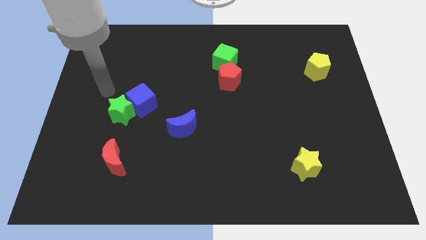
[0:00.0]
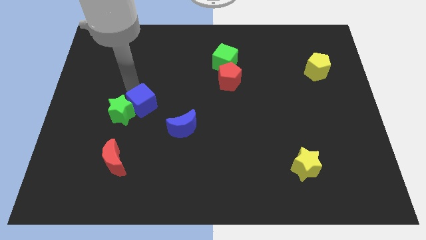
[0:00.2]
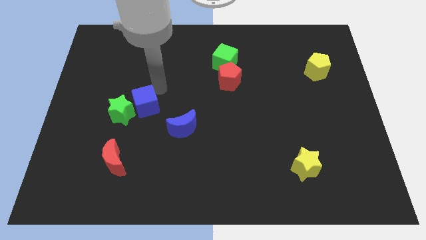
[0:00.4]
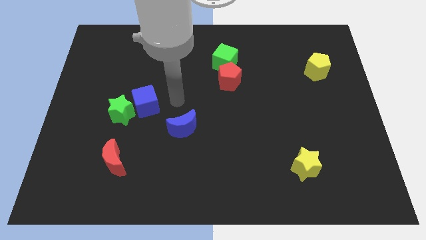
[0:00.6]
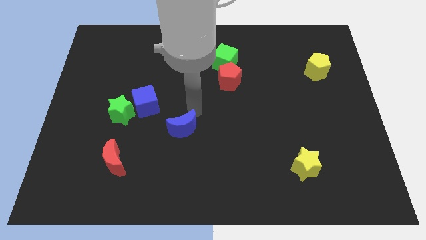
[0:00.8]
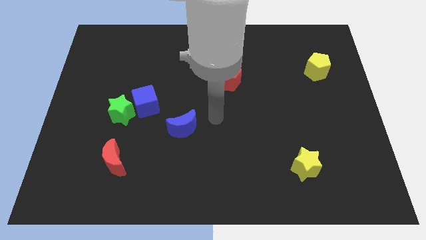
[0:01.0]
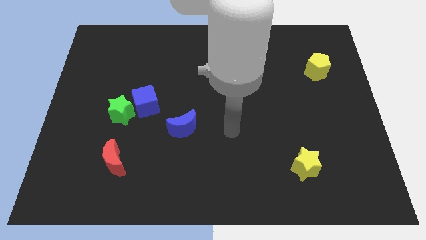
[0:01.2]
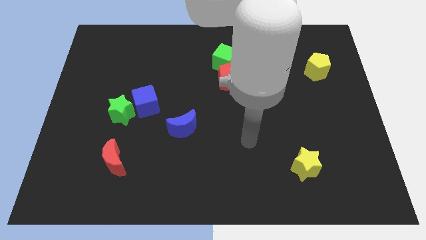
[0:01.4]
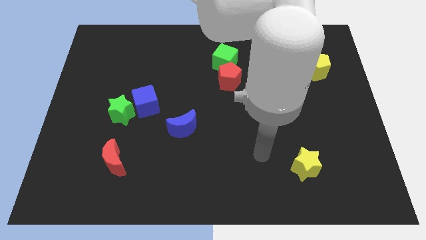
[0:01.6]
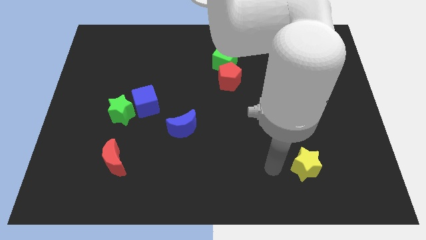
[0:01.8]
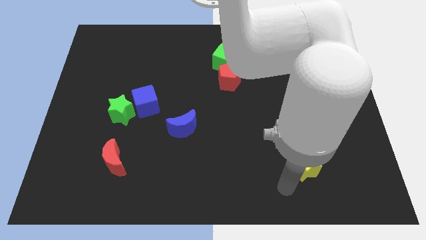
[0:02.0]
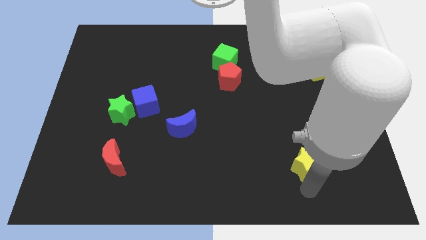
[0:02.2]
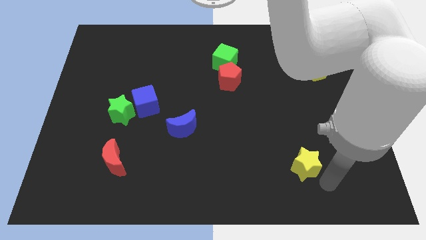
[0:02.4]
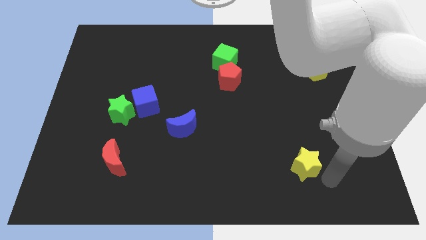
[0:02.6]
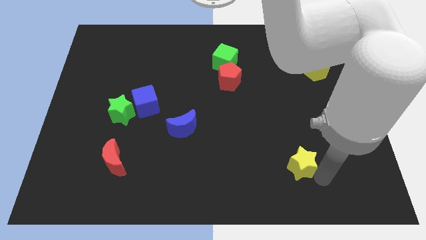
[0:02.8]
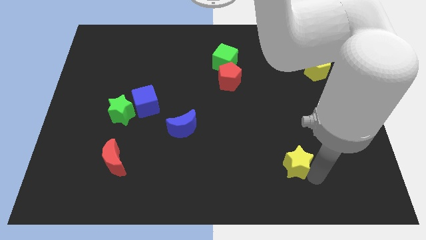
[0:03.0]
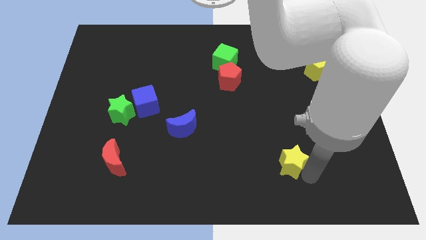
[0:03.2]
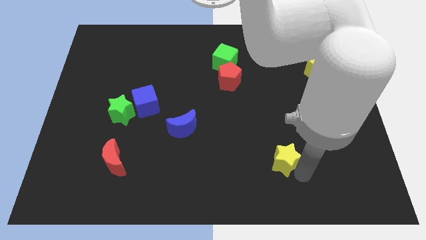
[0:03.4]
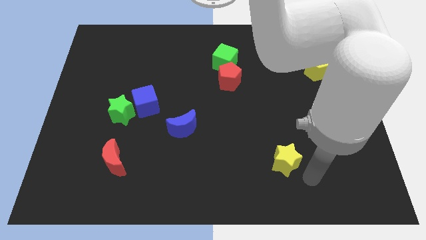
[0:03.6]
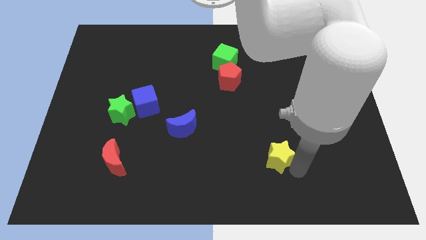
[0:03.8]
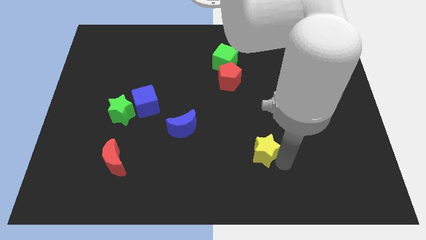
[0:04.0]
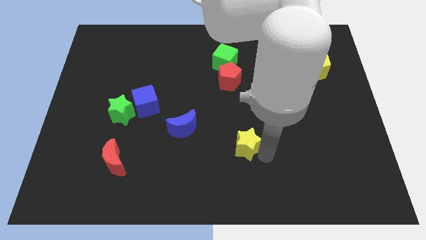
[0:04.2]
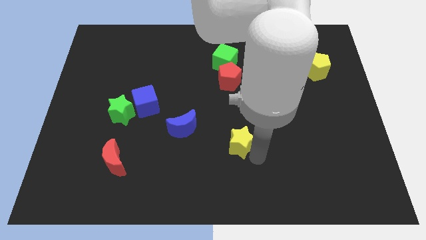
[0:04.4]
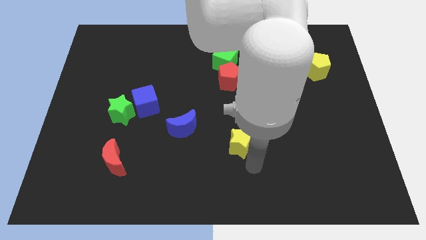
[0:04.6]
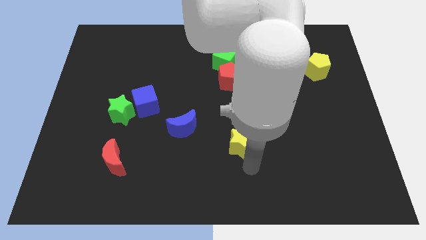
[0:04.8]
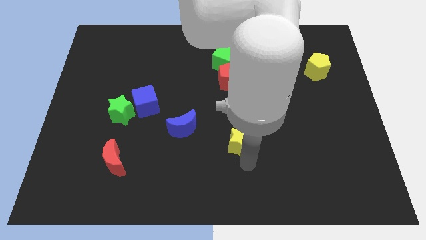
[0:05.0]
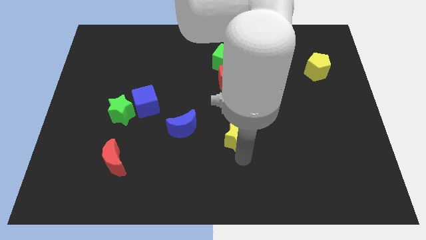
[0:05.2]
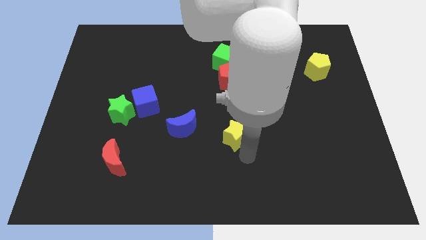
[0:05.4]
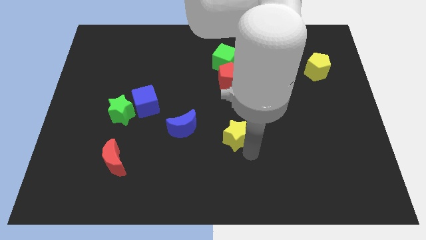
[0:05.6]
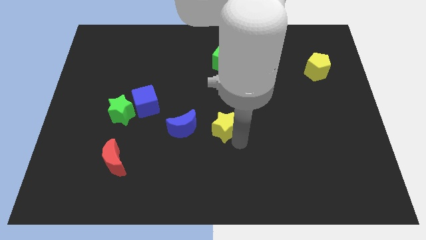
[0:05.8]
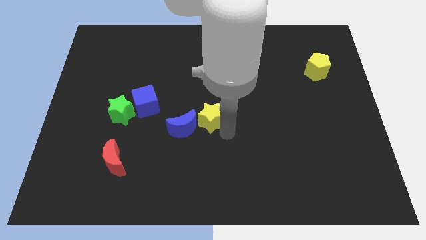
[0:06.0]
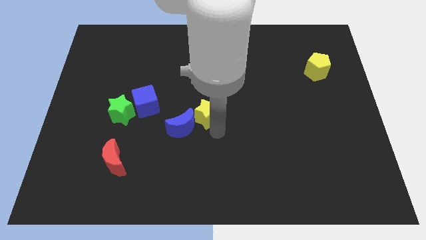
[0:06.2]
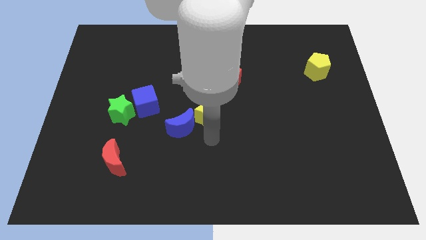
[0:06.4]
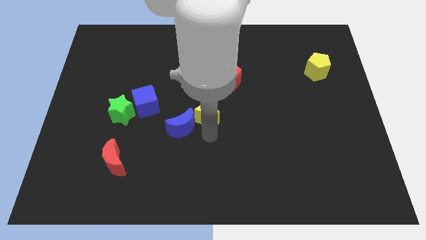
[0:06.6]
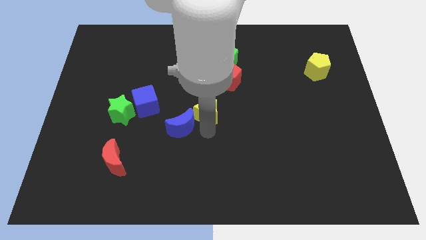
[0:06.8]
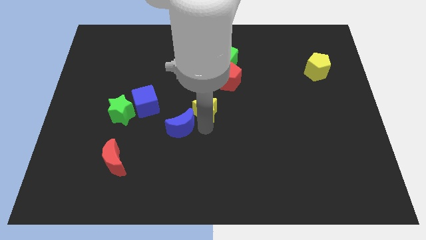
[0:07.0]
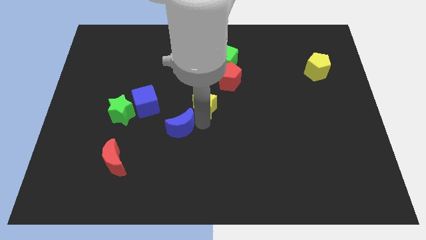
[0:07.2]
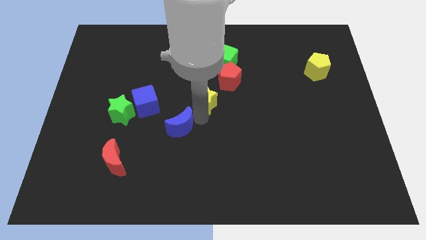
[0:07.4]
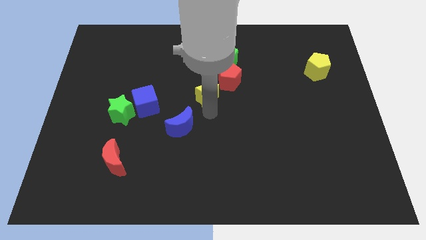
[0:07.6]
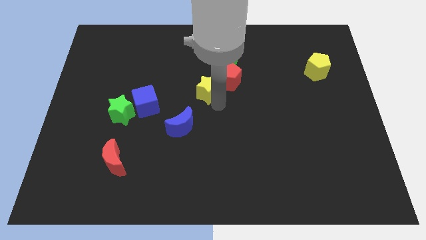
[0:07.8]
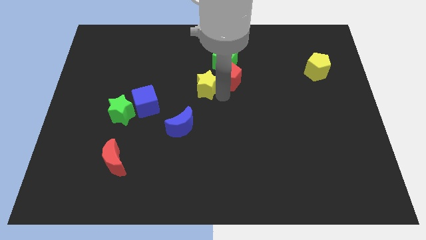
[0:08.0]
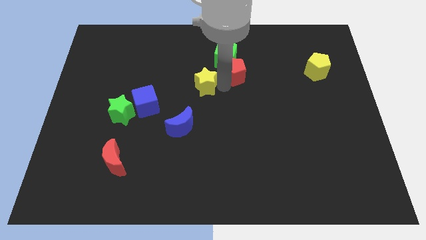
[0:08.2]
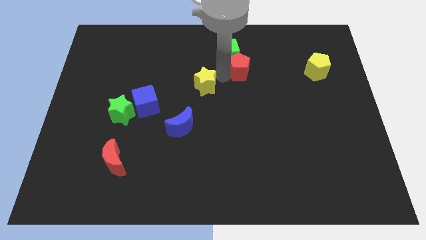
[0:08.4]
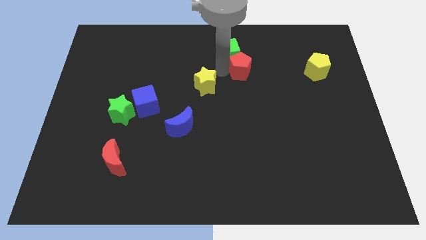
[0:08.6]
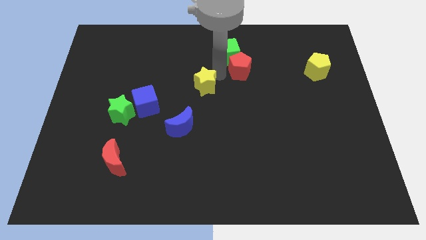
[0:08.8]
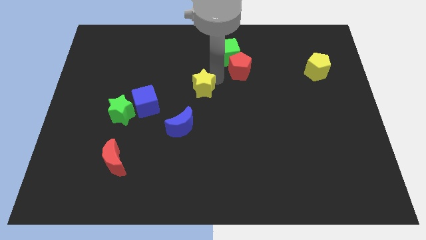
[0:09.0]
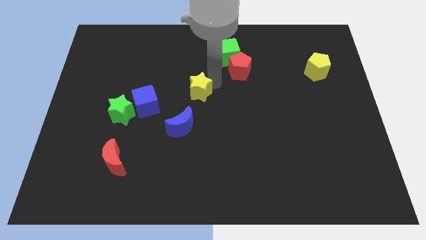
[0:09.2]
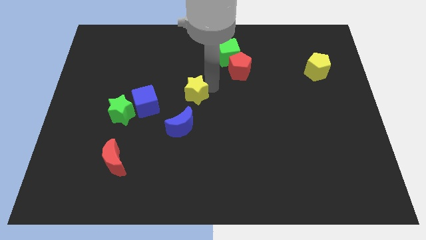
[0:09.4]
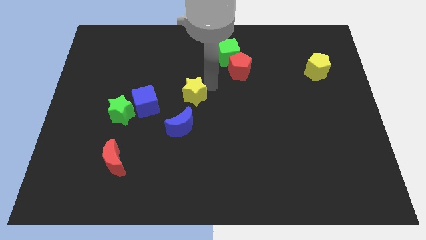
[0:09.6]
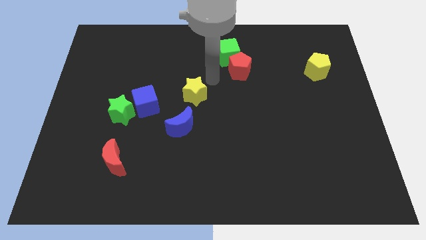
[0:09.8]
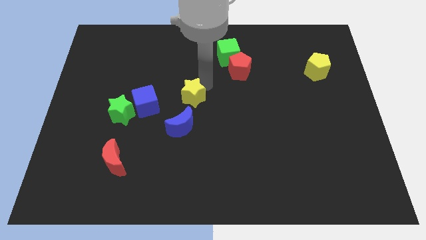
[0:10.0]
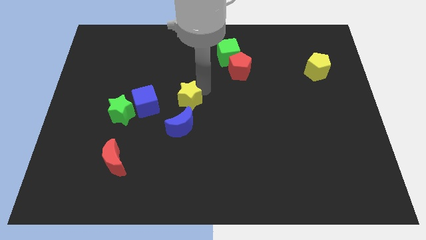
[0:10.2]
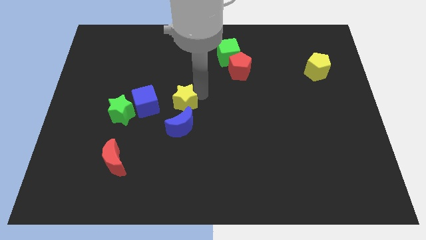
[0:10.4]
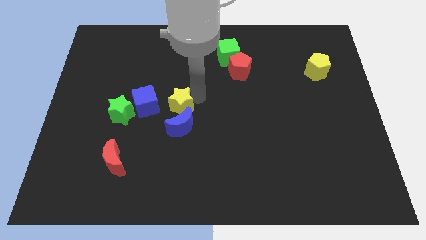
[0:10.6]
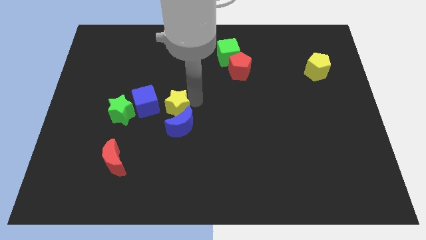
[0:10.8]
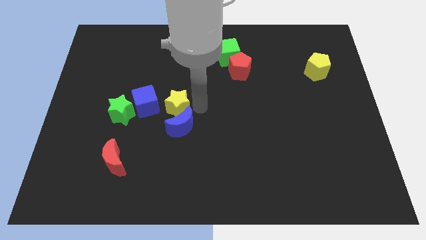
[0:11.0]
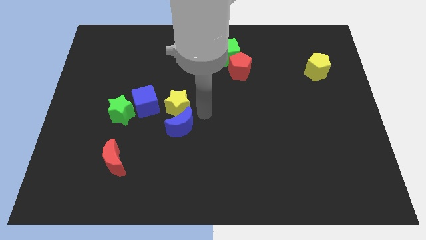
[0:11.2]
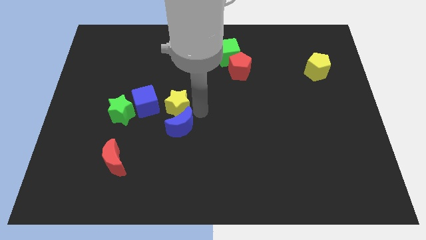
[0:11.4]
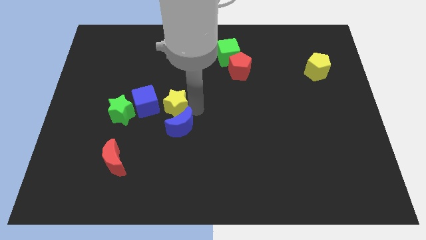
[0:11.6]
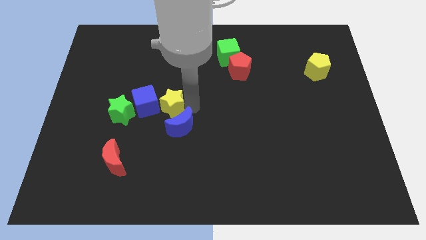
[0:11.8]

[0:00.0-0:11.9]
move the yellow star close to the blue cube
